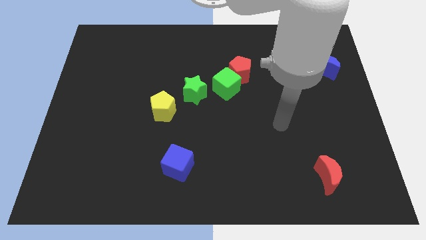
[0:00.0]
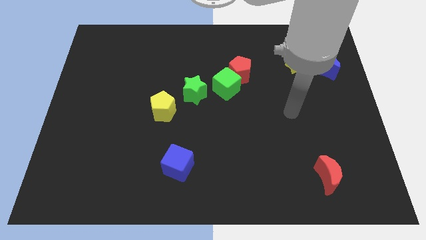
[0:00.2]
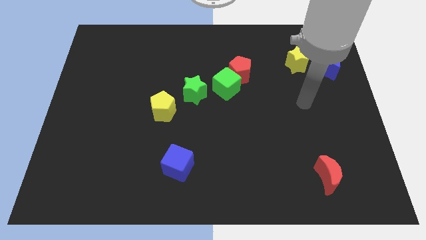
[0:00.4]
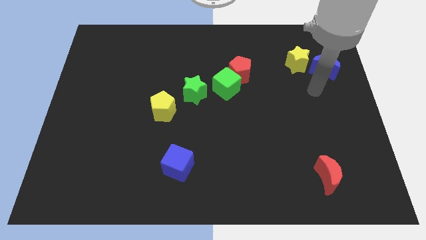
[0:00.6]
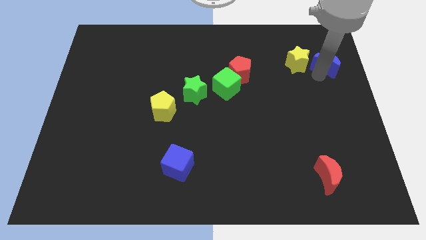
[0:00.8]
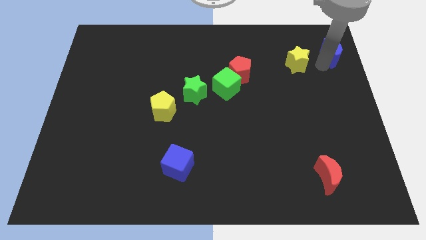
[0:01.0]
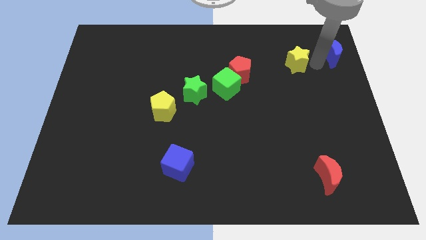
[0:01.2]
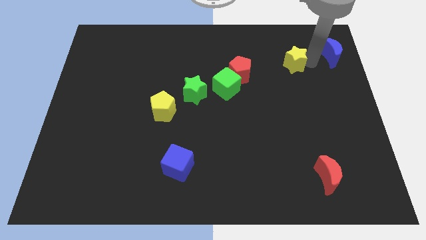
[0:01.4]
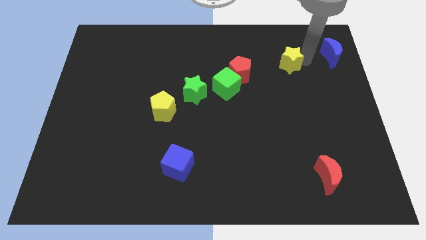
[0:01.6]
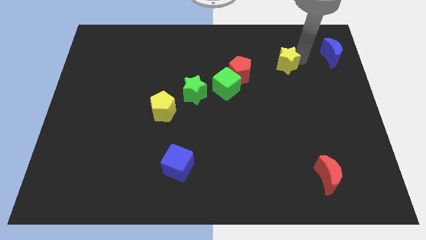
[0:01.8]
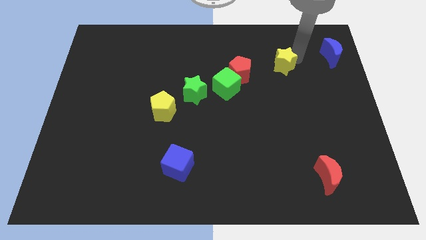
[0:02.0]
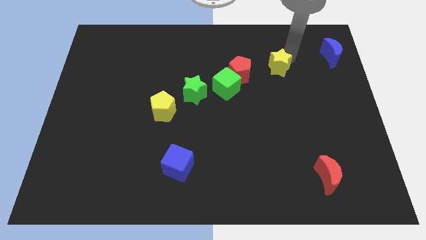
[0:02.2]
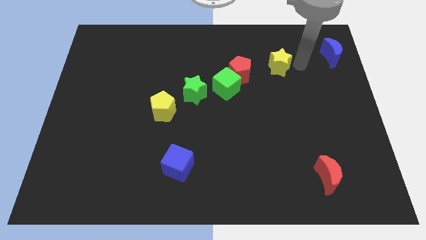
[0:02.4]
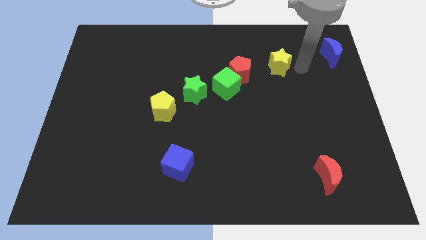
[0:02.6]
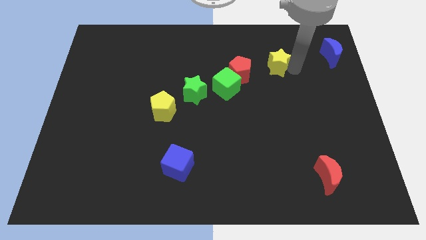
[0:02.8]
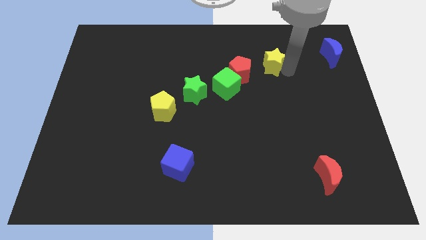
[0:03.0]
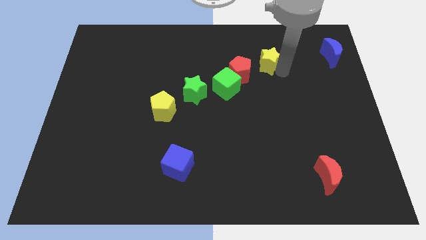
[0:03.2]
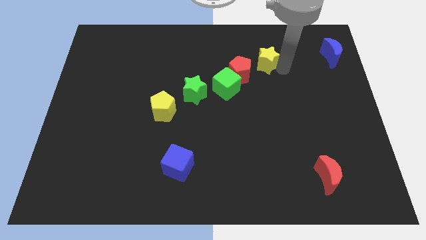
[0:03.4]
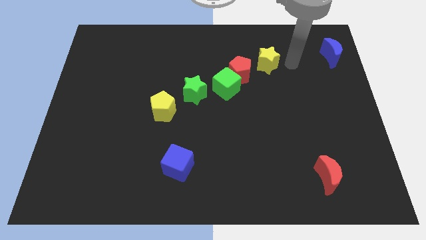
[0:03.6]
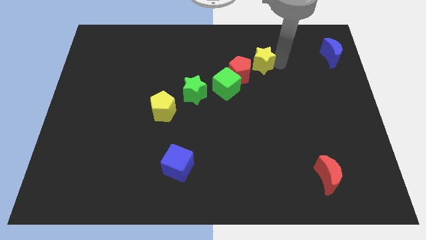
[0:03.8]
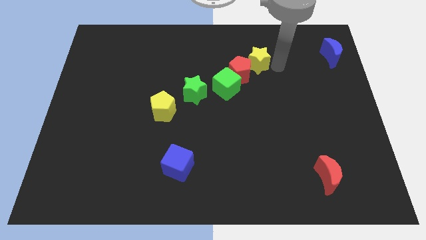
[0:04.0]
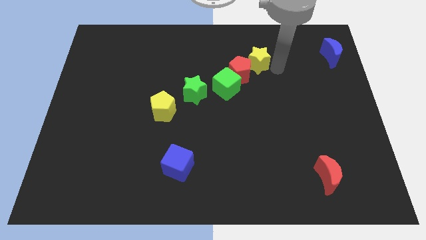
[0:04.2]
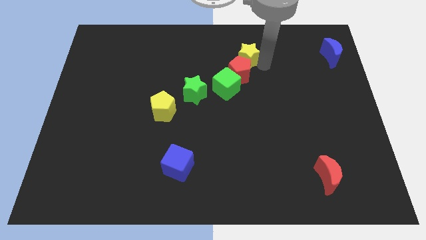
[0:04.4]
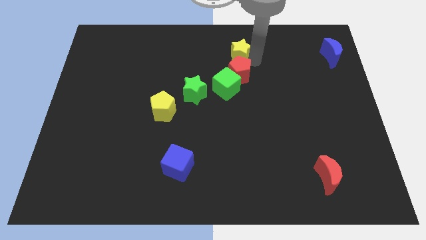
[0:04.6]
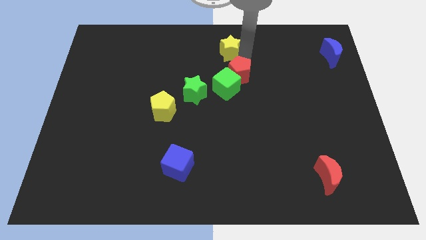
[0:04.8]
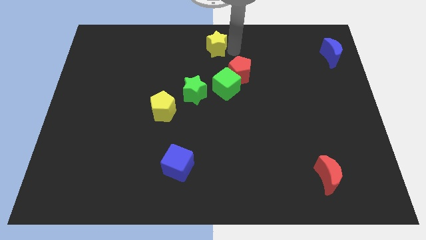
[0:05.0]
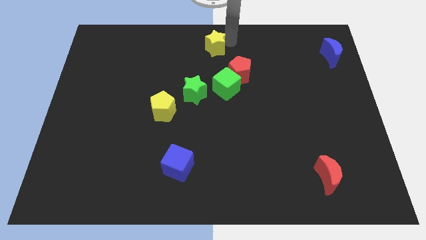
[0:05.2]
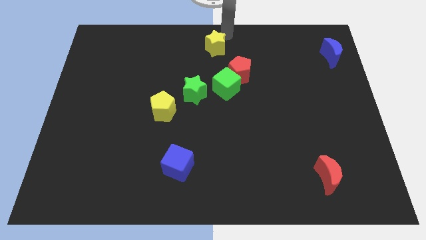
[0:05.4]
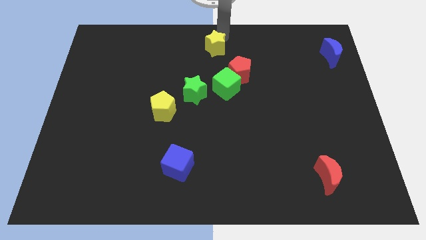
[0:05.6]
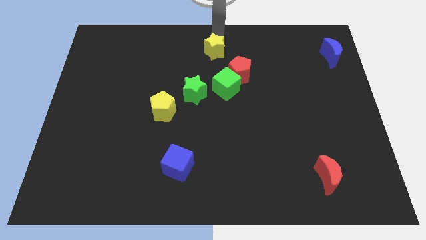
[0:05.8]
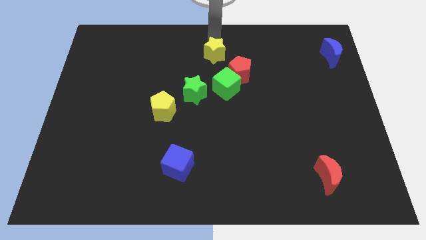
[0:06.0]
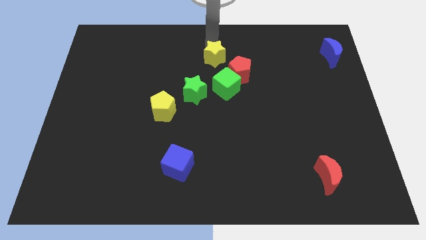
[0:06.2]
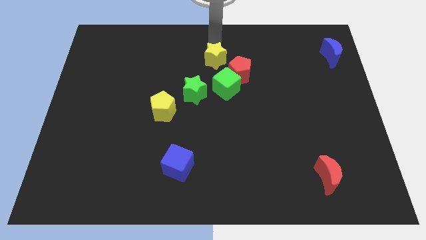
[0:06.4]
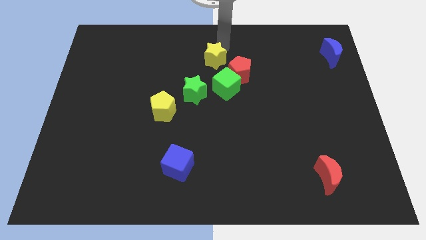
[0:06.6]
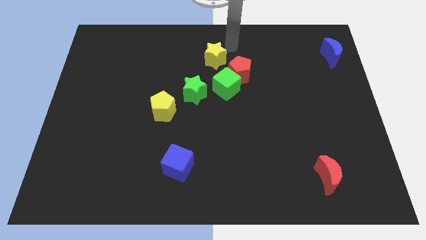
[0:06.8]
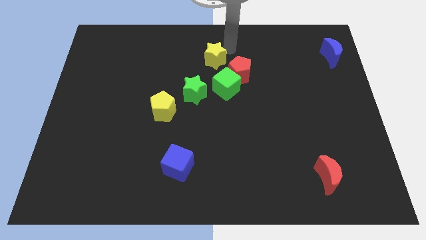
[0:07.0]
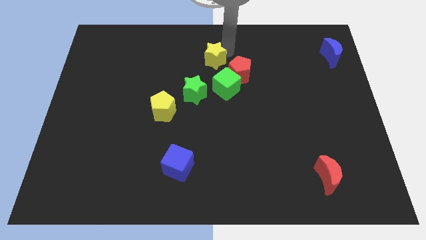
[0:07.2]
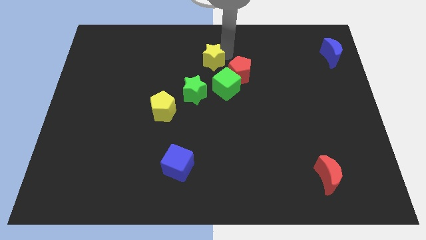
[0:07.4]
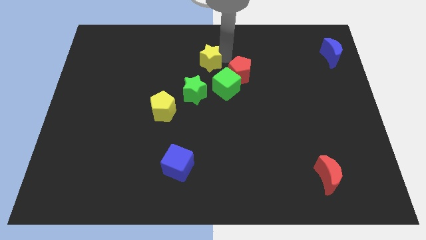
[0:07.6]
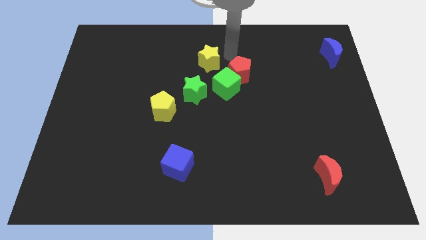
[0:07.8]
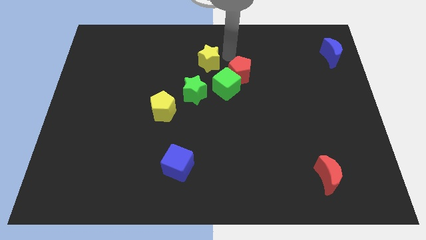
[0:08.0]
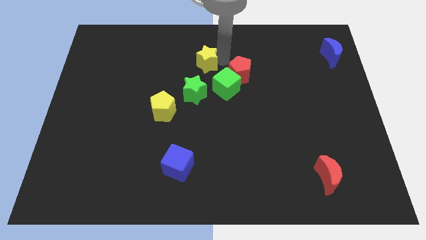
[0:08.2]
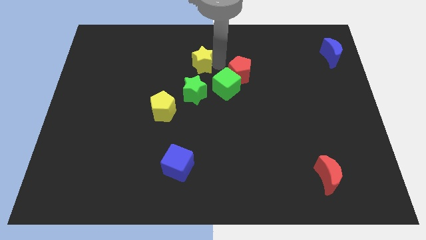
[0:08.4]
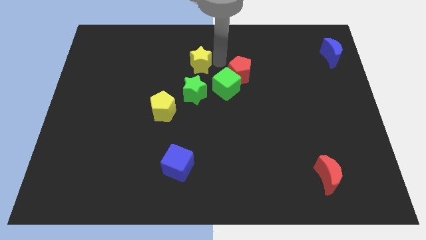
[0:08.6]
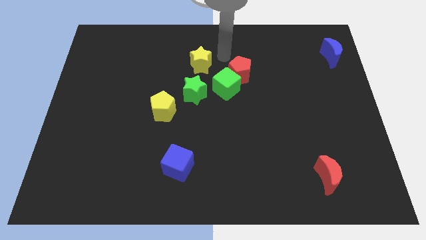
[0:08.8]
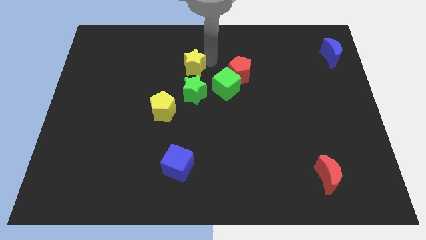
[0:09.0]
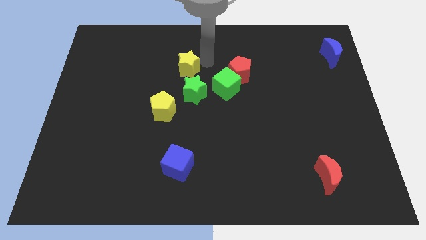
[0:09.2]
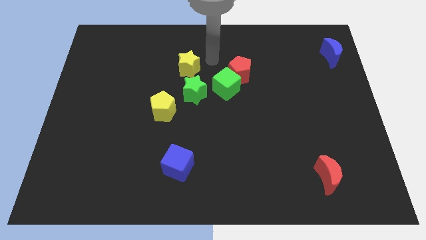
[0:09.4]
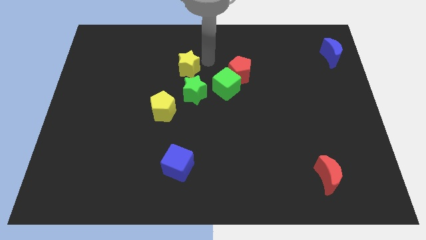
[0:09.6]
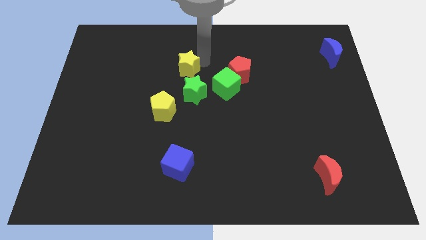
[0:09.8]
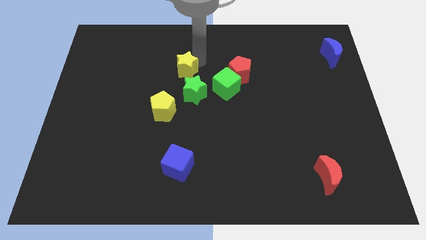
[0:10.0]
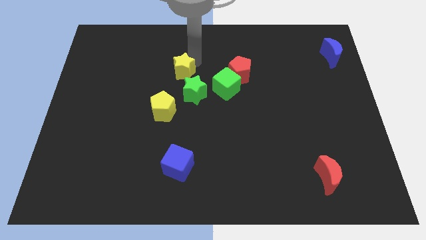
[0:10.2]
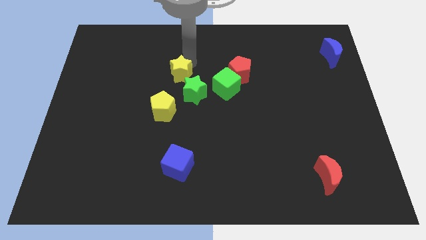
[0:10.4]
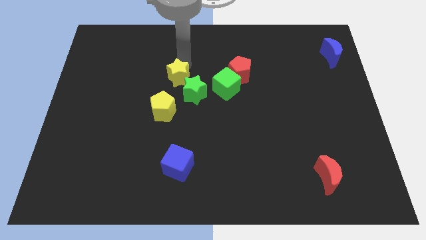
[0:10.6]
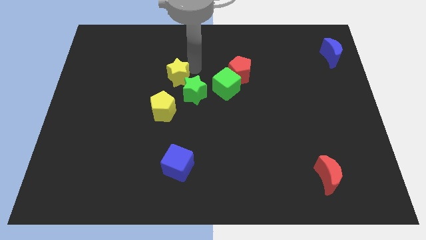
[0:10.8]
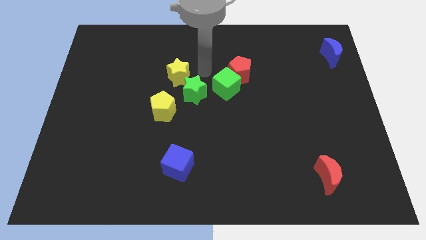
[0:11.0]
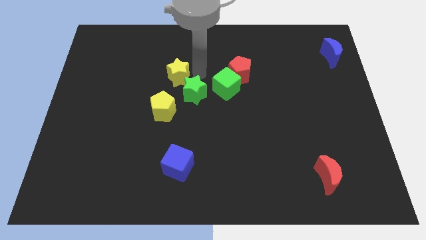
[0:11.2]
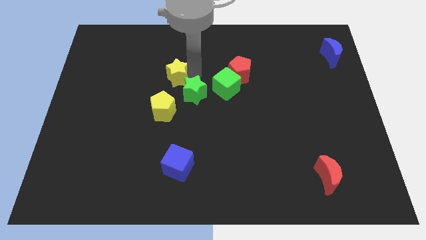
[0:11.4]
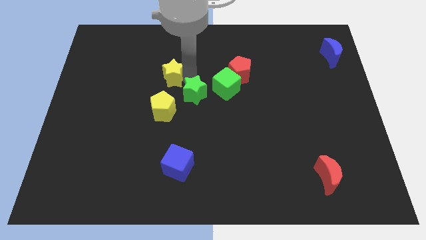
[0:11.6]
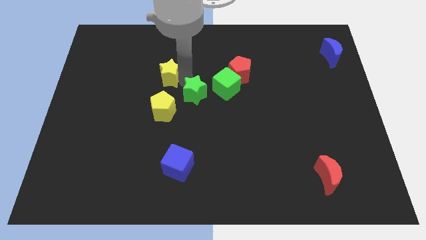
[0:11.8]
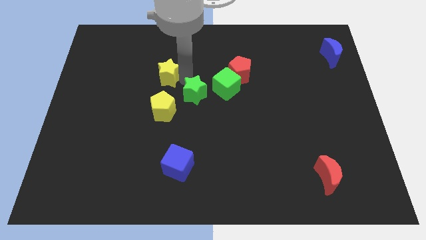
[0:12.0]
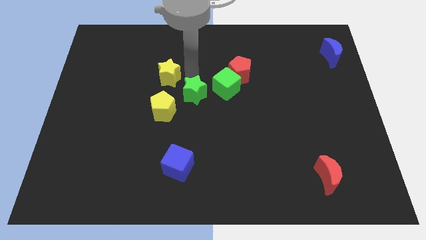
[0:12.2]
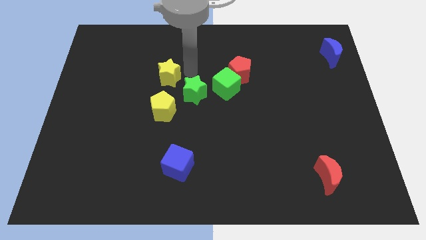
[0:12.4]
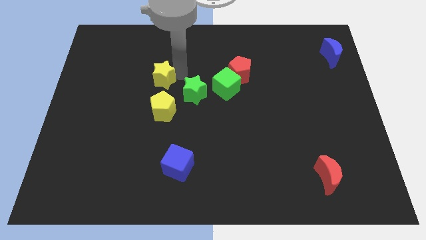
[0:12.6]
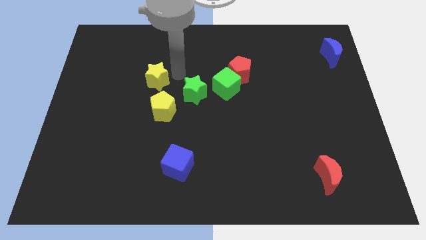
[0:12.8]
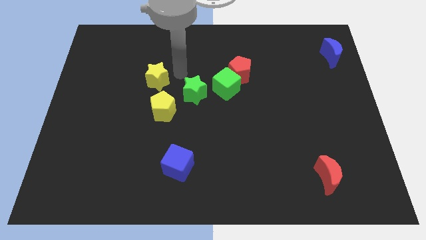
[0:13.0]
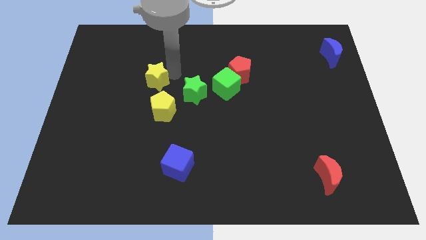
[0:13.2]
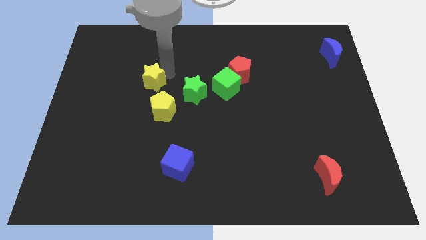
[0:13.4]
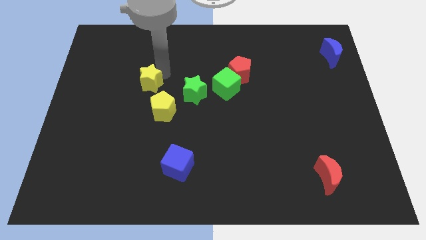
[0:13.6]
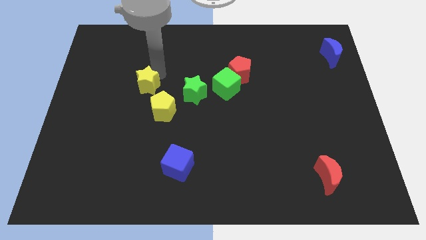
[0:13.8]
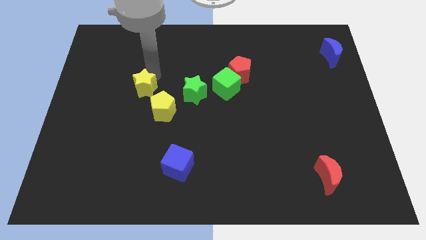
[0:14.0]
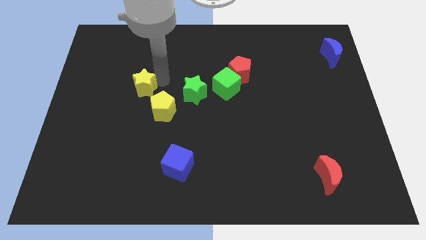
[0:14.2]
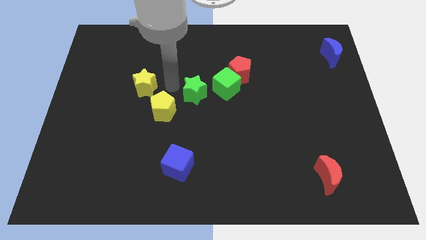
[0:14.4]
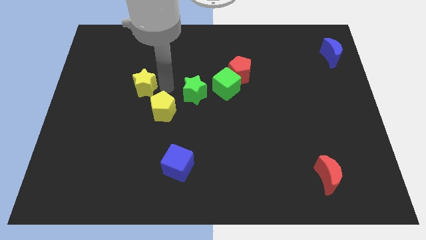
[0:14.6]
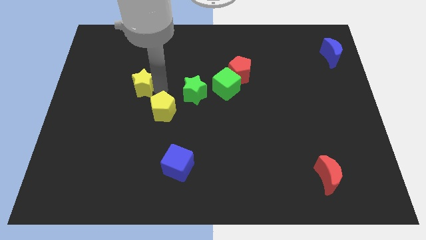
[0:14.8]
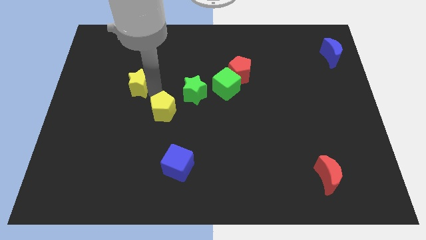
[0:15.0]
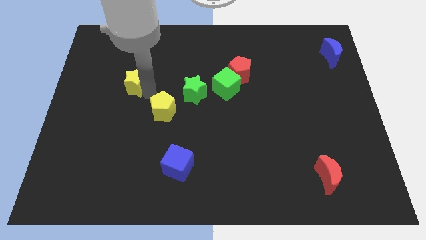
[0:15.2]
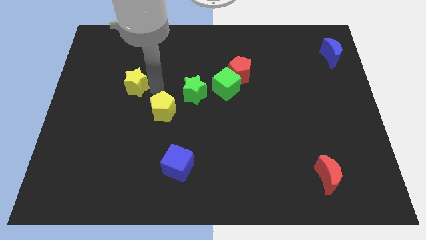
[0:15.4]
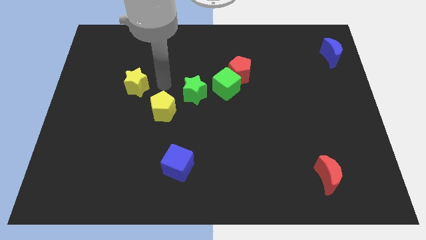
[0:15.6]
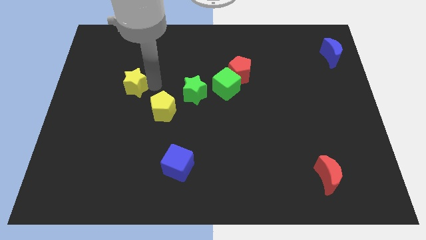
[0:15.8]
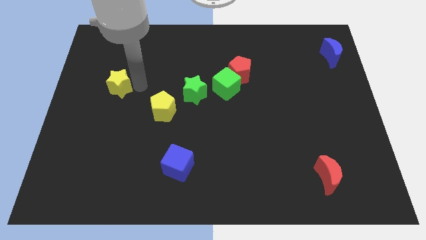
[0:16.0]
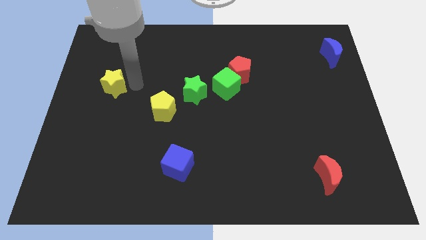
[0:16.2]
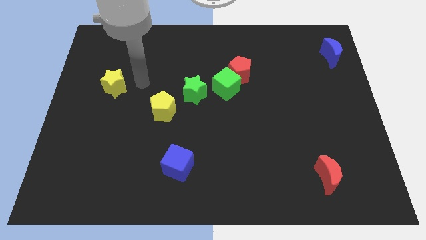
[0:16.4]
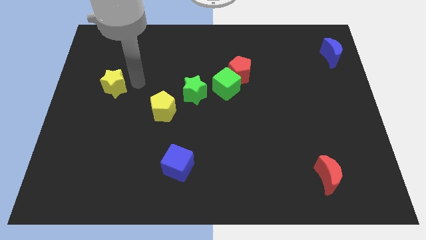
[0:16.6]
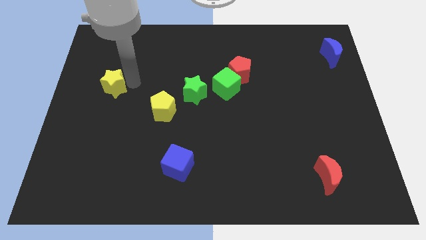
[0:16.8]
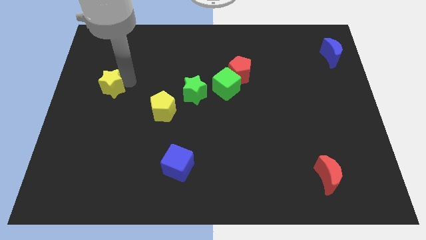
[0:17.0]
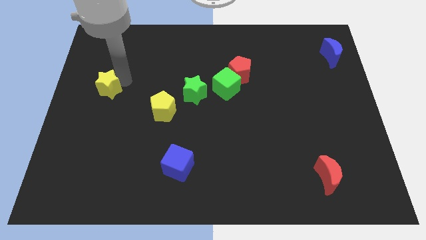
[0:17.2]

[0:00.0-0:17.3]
move the yellow star to the center left
